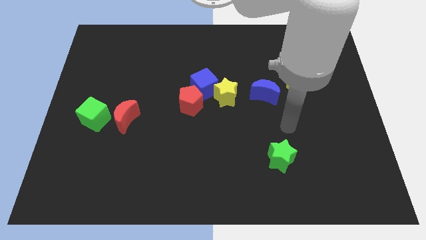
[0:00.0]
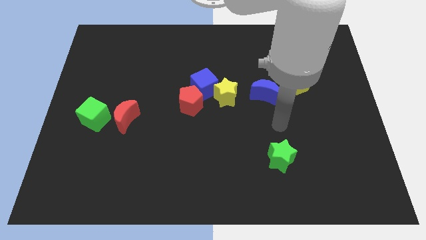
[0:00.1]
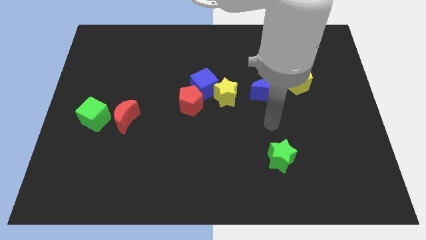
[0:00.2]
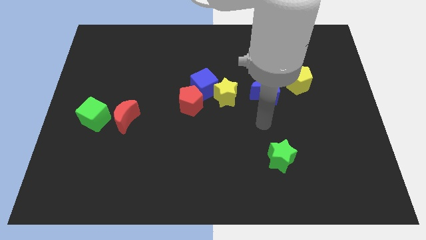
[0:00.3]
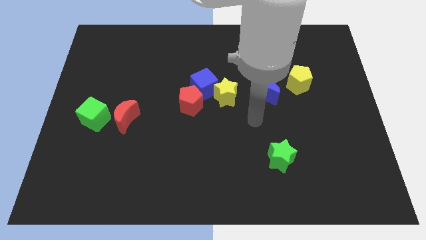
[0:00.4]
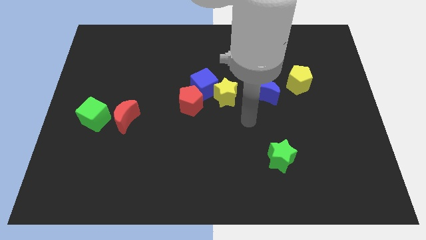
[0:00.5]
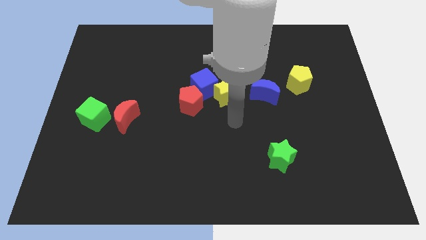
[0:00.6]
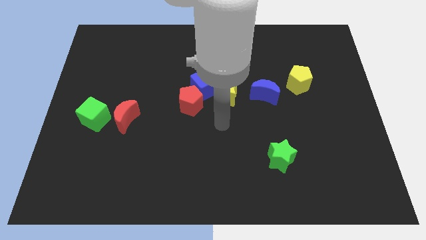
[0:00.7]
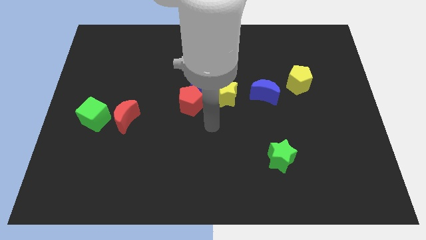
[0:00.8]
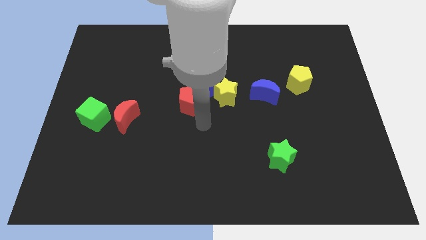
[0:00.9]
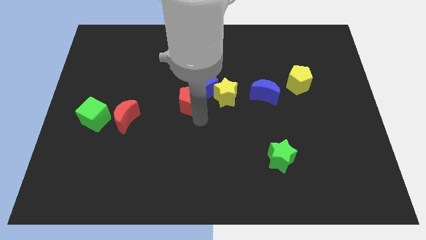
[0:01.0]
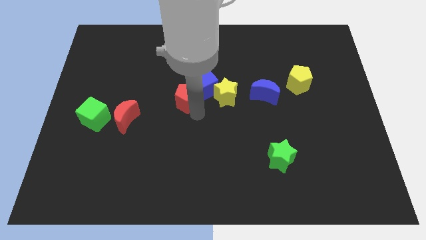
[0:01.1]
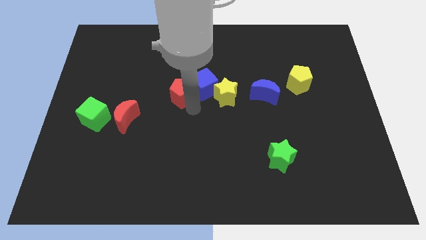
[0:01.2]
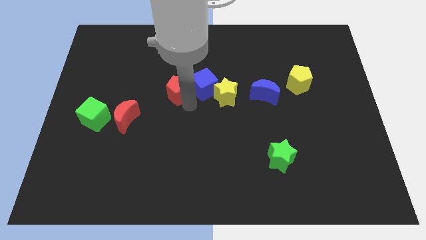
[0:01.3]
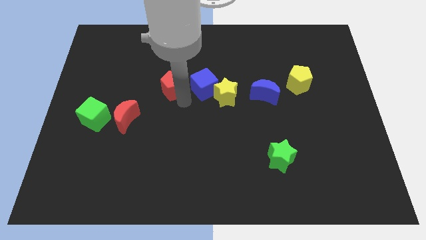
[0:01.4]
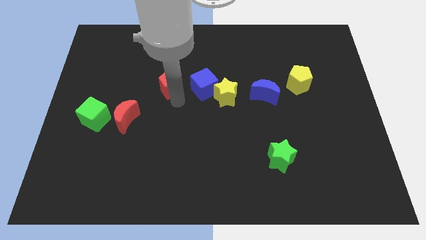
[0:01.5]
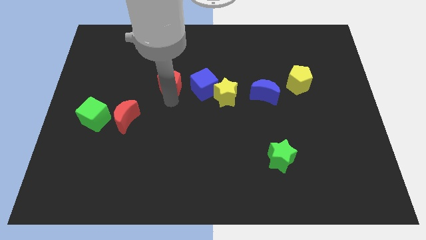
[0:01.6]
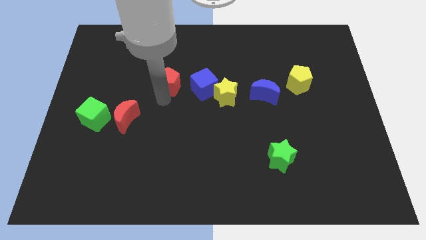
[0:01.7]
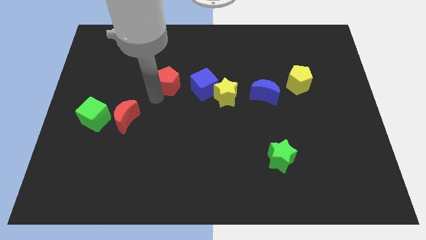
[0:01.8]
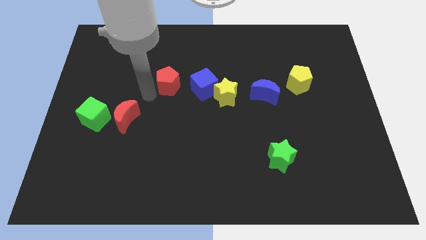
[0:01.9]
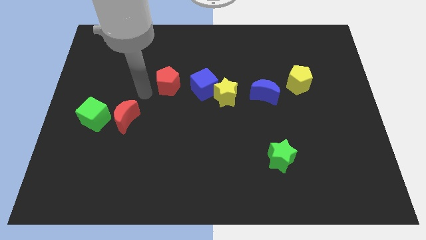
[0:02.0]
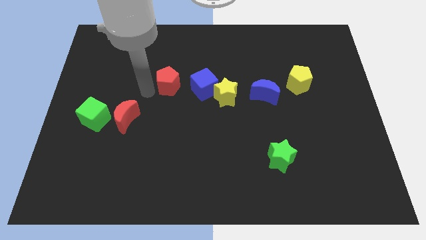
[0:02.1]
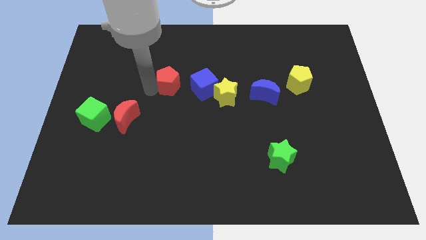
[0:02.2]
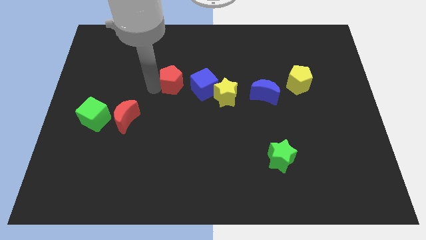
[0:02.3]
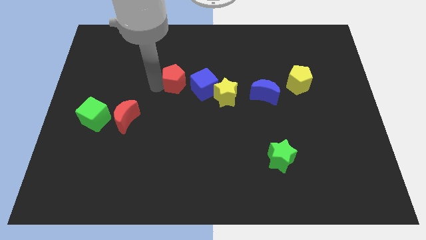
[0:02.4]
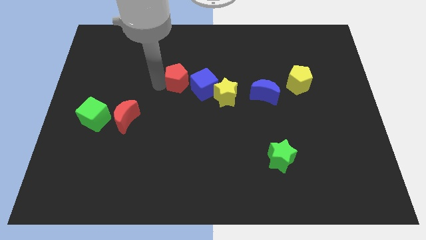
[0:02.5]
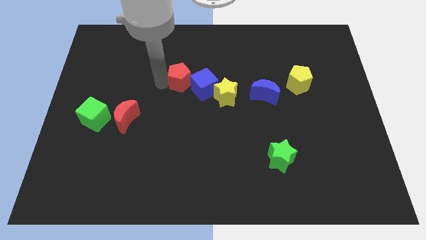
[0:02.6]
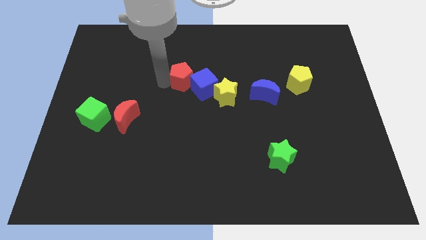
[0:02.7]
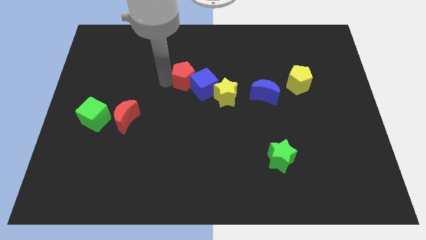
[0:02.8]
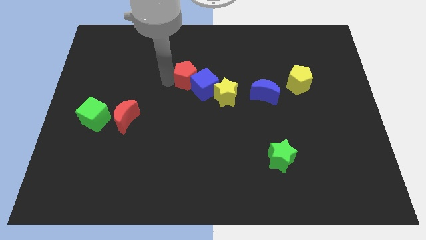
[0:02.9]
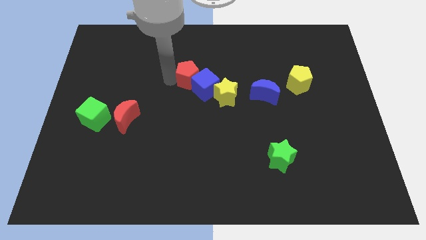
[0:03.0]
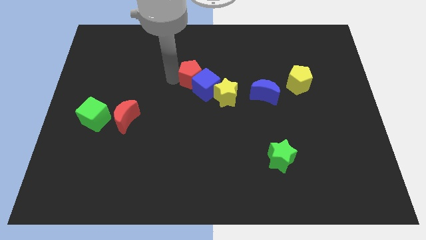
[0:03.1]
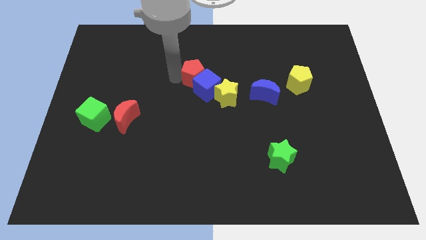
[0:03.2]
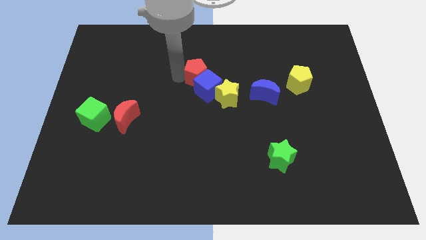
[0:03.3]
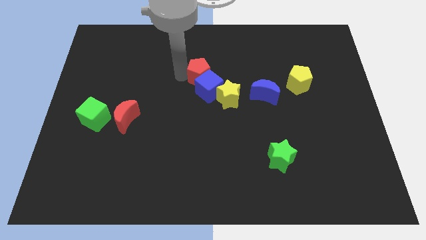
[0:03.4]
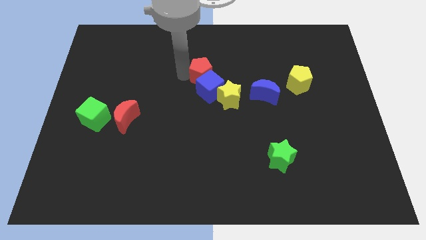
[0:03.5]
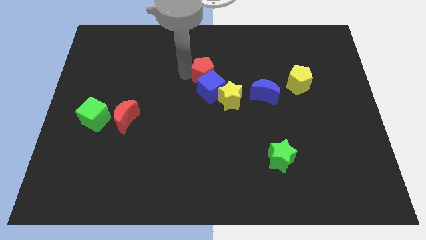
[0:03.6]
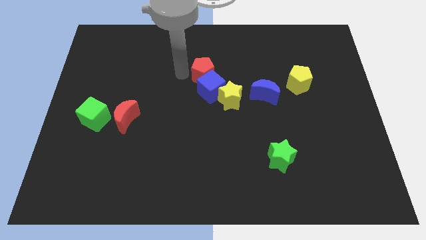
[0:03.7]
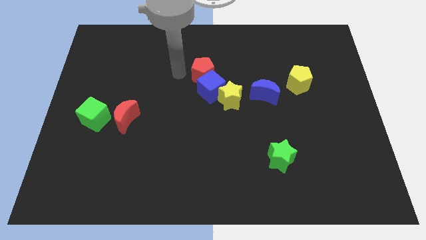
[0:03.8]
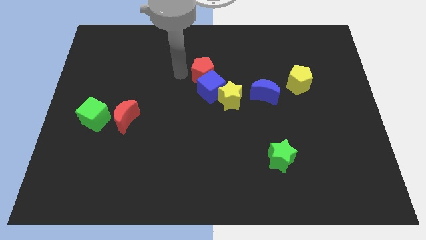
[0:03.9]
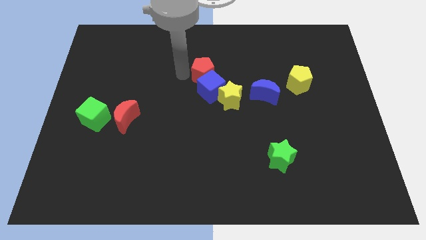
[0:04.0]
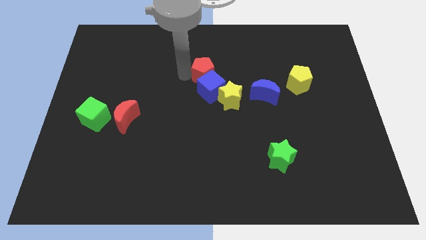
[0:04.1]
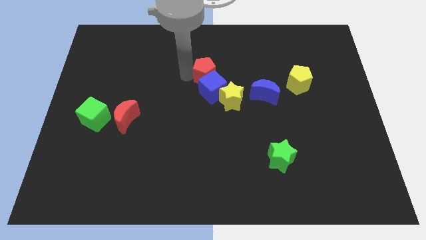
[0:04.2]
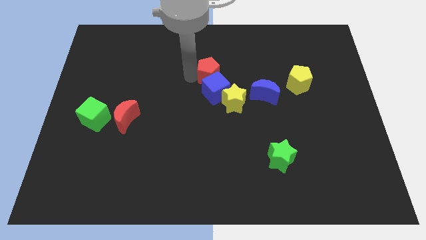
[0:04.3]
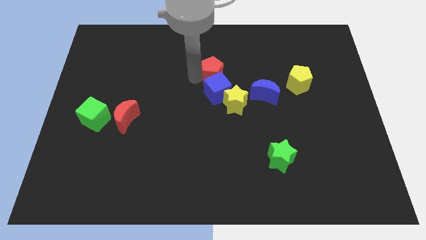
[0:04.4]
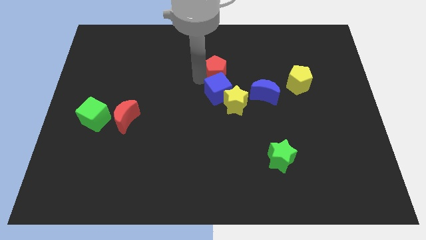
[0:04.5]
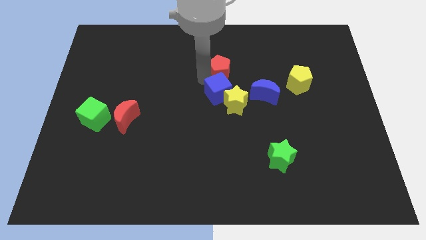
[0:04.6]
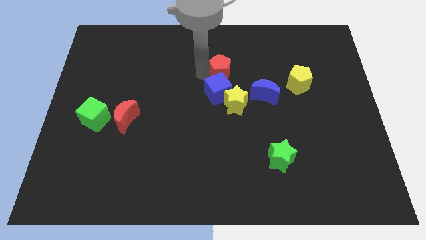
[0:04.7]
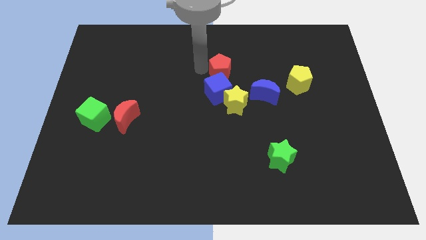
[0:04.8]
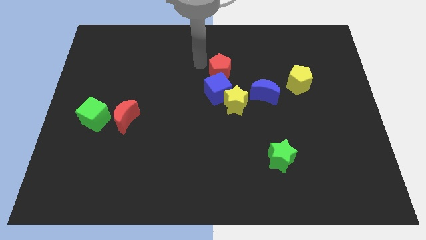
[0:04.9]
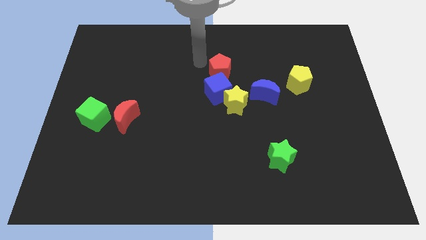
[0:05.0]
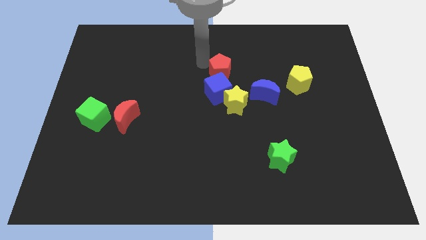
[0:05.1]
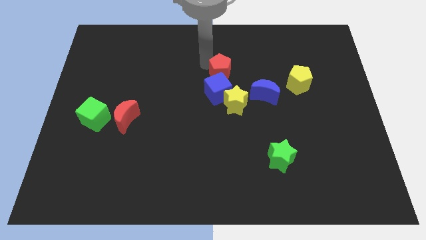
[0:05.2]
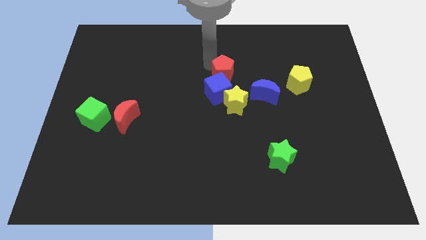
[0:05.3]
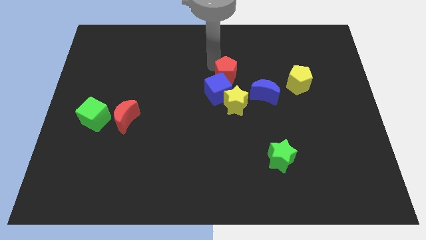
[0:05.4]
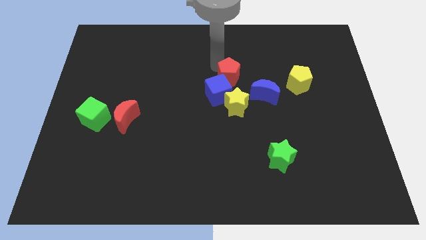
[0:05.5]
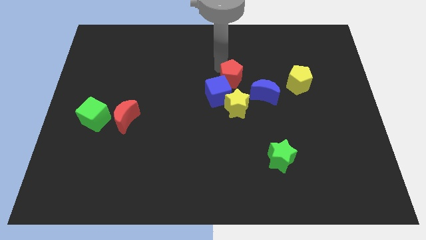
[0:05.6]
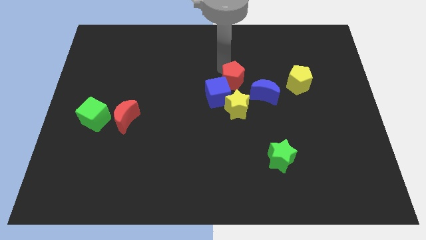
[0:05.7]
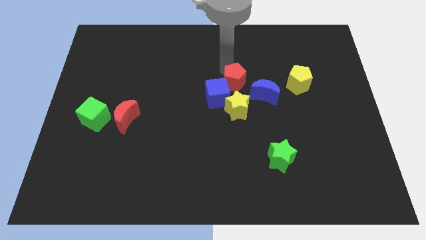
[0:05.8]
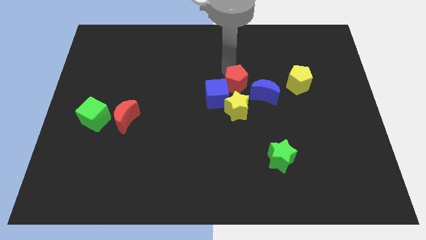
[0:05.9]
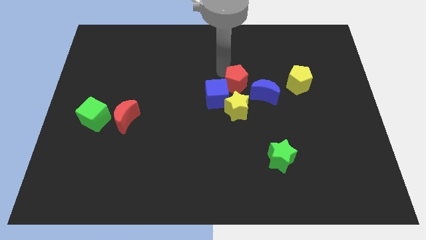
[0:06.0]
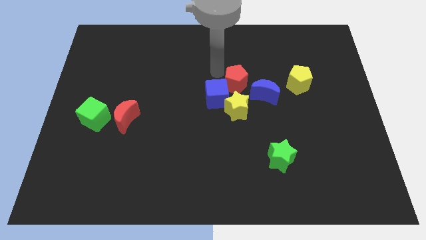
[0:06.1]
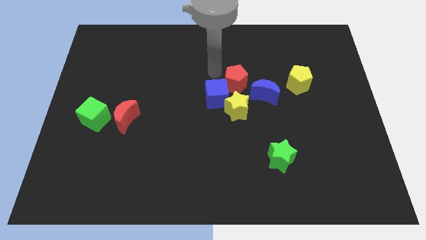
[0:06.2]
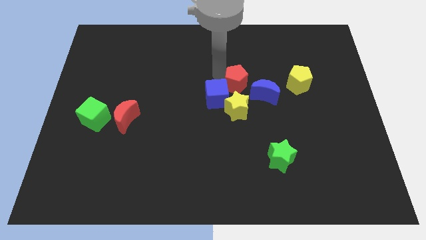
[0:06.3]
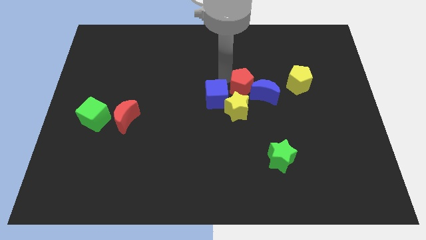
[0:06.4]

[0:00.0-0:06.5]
put the red pentagon to the top right side of the yellow star
